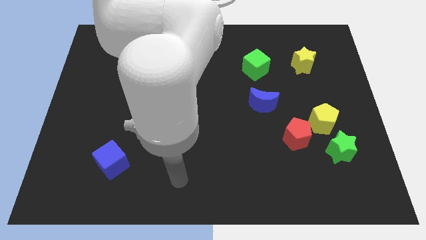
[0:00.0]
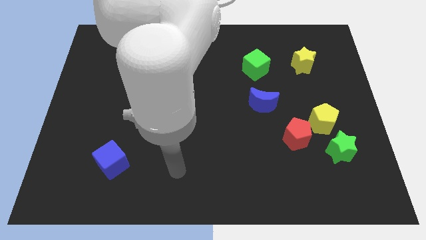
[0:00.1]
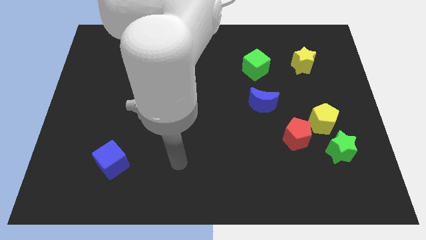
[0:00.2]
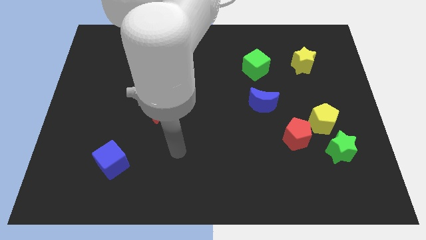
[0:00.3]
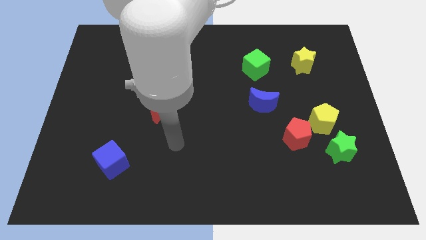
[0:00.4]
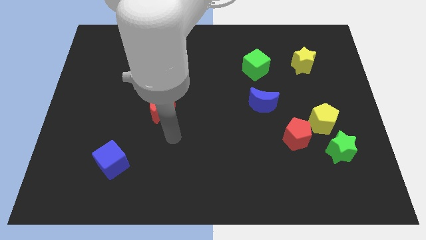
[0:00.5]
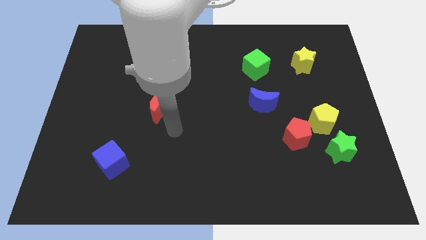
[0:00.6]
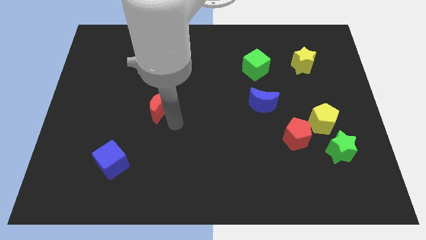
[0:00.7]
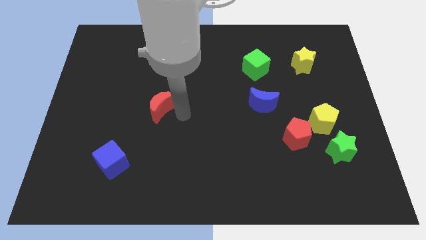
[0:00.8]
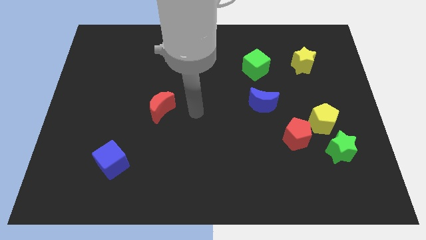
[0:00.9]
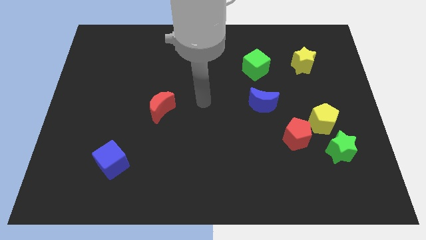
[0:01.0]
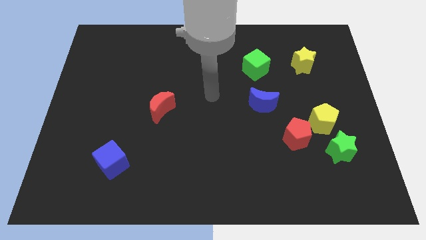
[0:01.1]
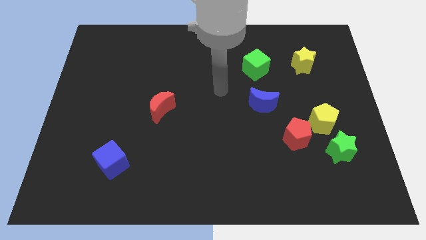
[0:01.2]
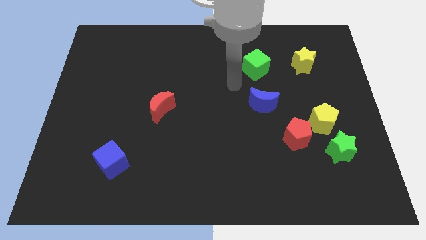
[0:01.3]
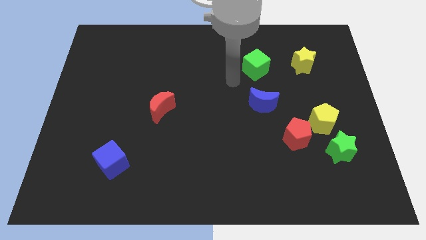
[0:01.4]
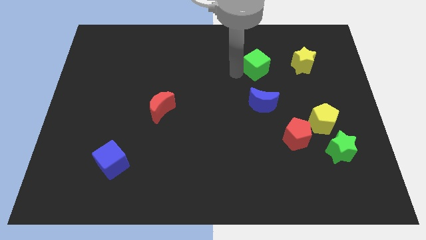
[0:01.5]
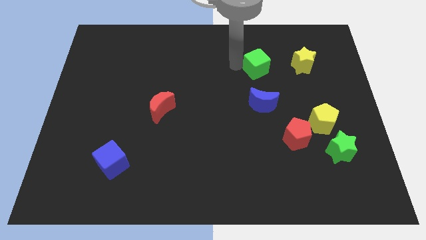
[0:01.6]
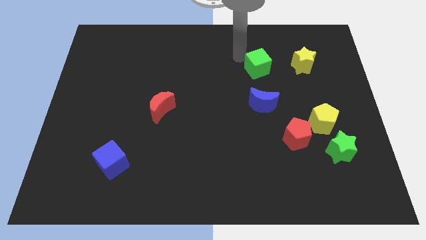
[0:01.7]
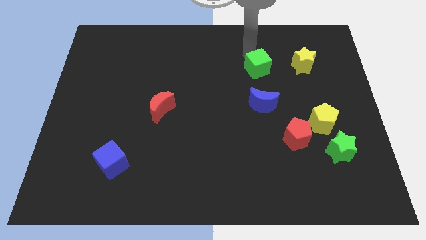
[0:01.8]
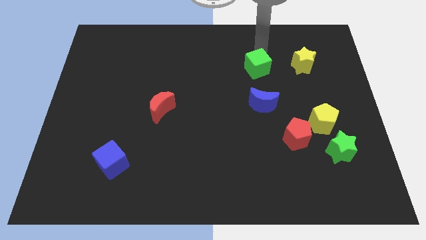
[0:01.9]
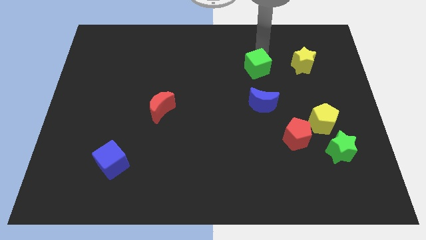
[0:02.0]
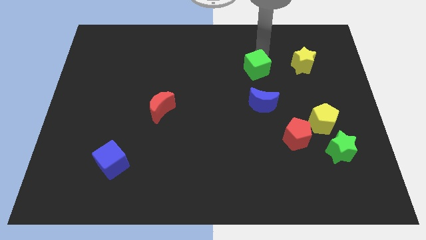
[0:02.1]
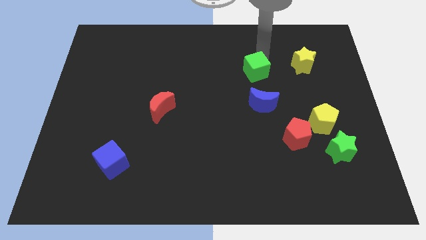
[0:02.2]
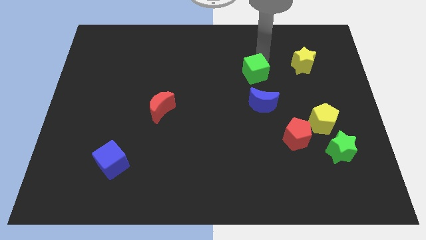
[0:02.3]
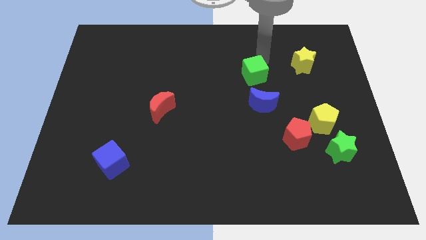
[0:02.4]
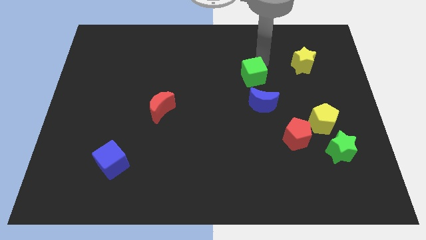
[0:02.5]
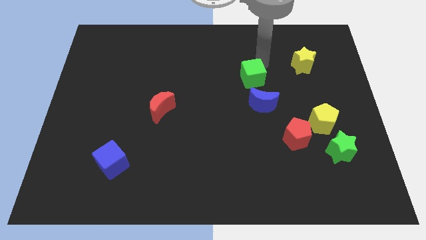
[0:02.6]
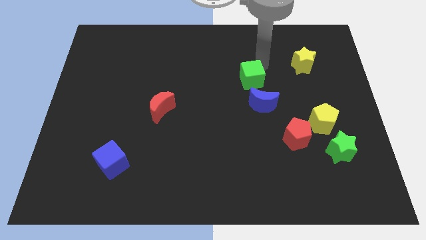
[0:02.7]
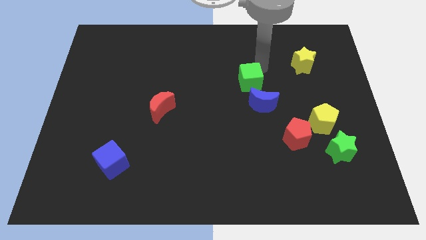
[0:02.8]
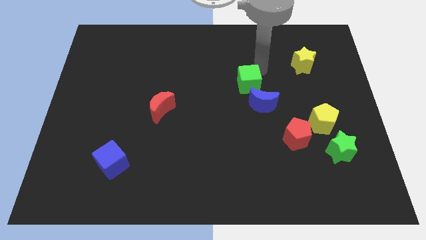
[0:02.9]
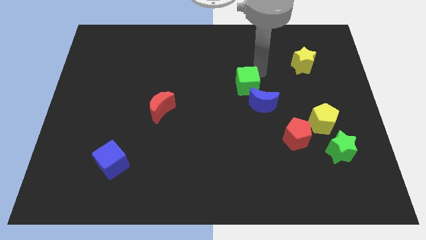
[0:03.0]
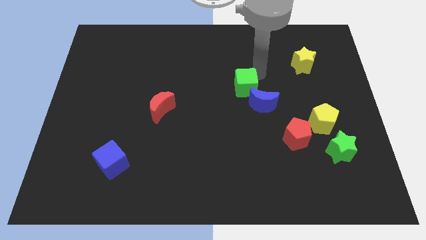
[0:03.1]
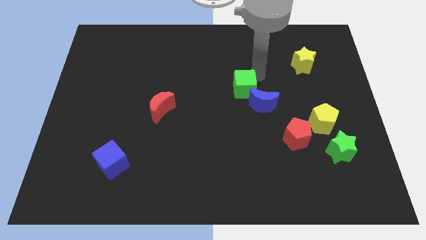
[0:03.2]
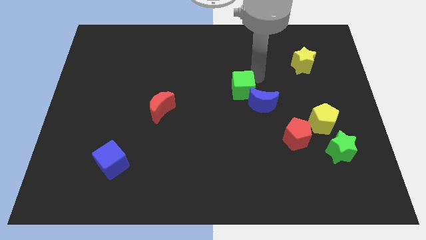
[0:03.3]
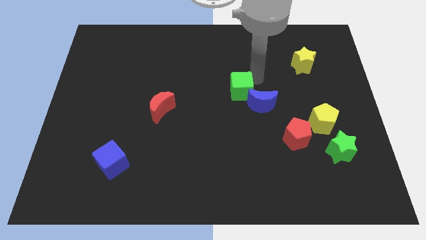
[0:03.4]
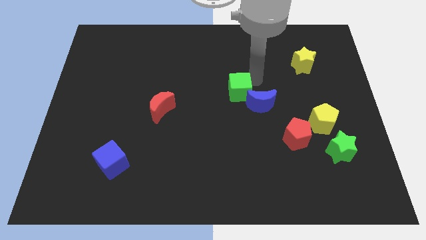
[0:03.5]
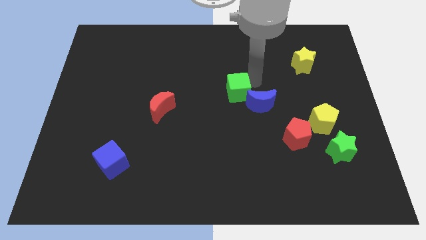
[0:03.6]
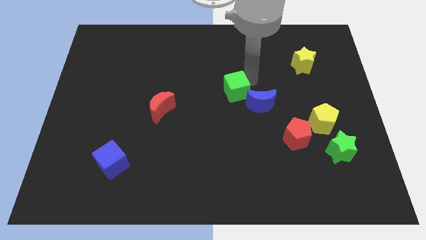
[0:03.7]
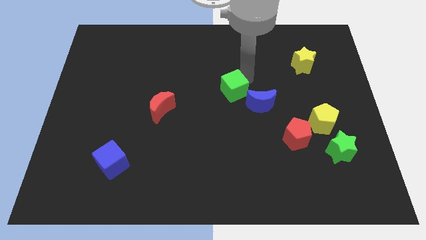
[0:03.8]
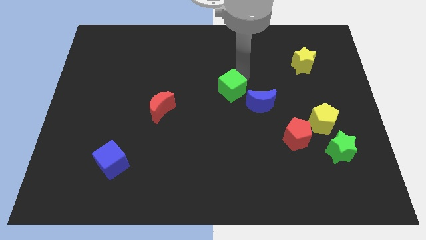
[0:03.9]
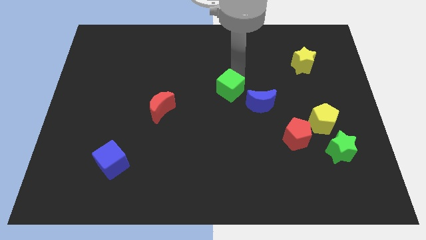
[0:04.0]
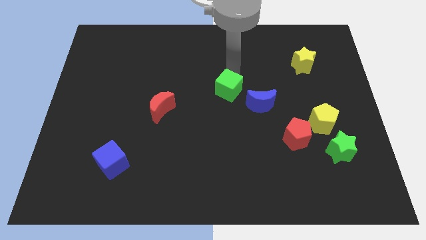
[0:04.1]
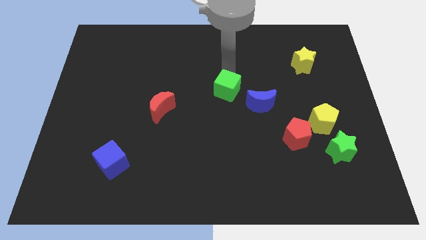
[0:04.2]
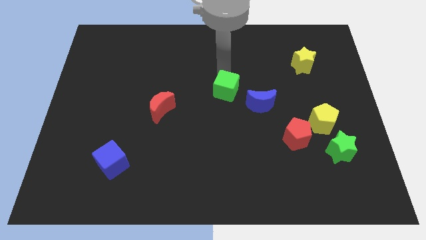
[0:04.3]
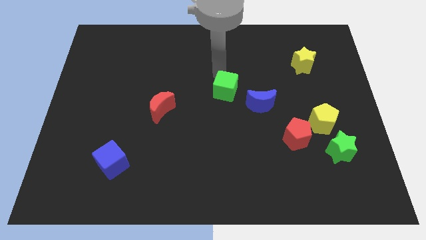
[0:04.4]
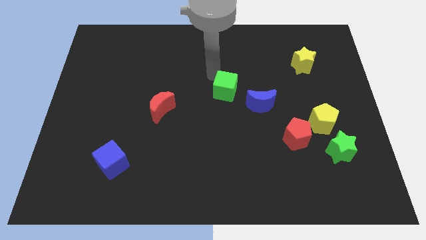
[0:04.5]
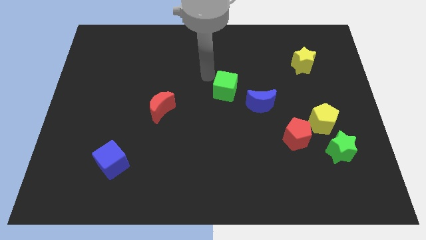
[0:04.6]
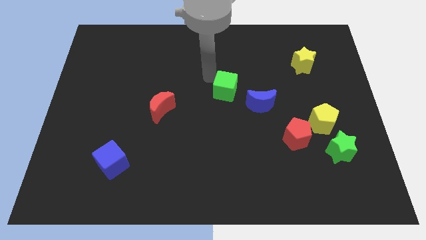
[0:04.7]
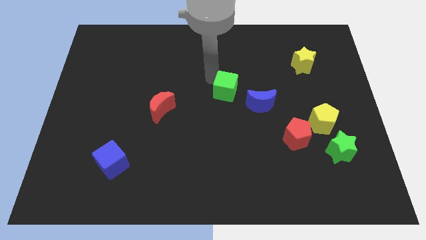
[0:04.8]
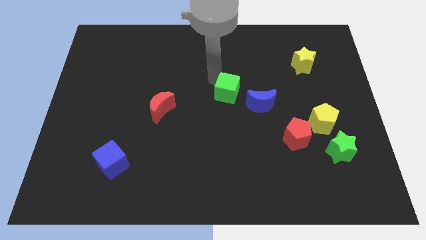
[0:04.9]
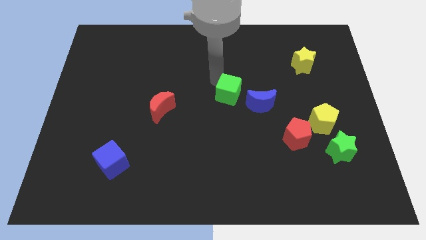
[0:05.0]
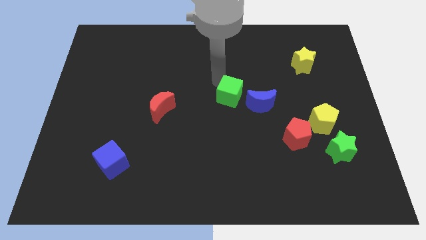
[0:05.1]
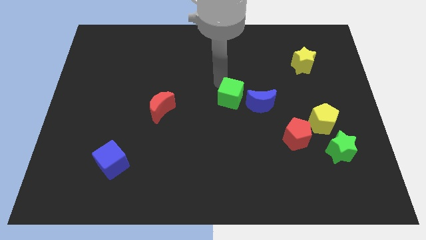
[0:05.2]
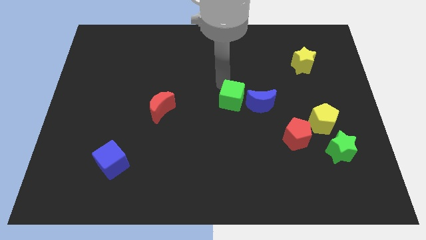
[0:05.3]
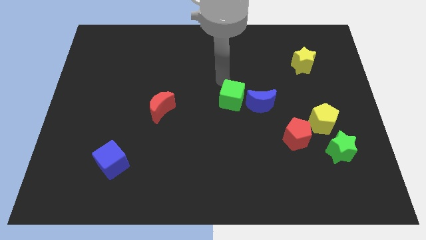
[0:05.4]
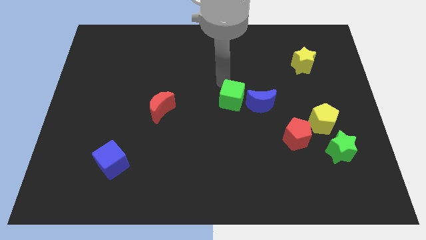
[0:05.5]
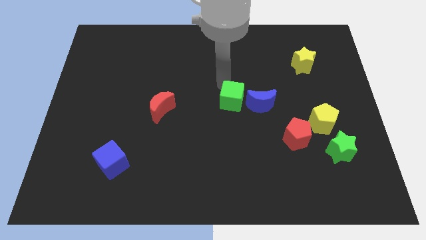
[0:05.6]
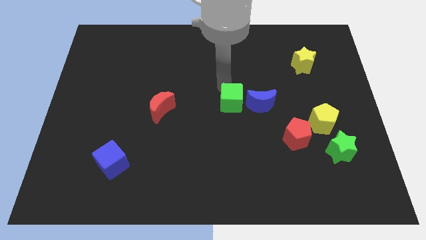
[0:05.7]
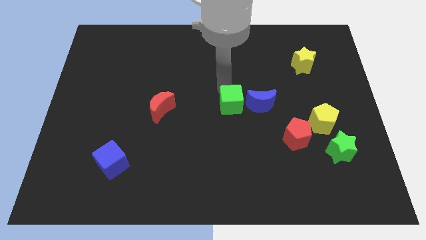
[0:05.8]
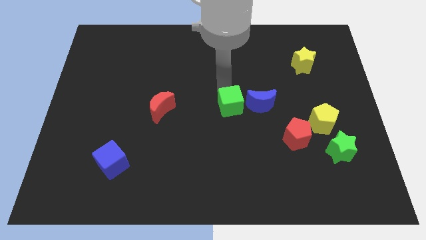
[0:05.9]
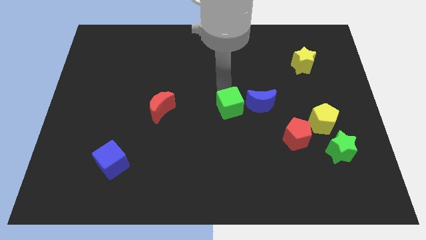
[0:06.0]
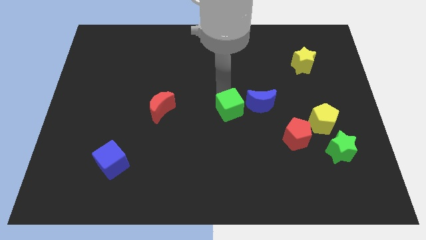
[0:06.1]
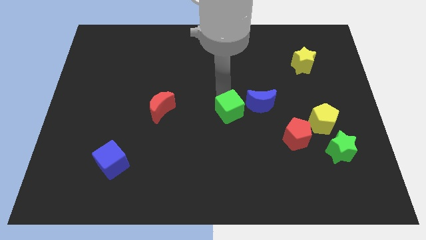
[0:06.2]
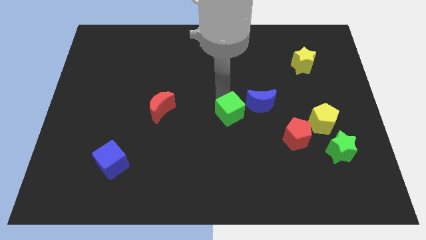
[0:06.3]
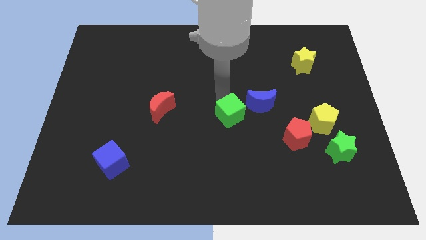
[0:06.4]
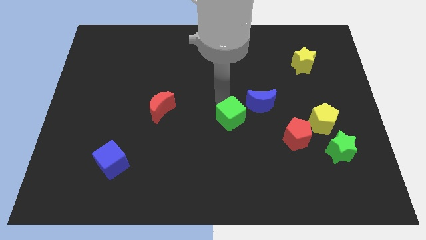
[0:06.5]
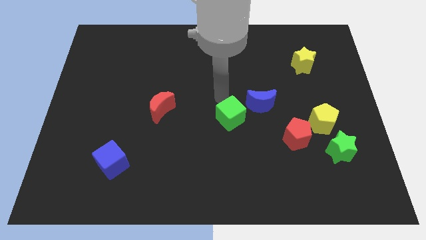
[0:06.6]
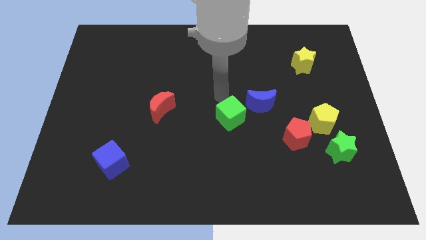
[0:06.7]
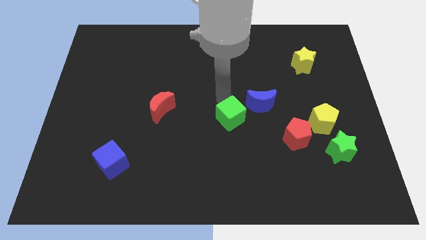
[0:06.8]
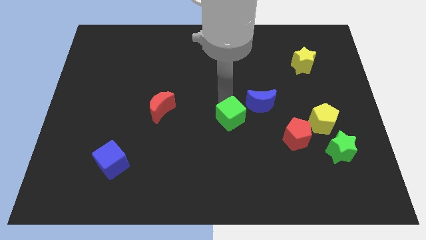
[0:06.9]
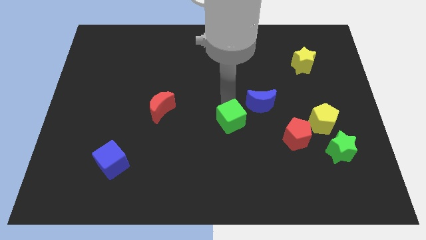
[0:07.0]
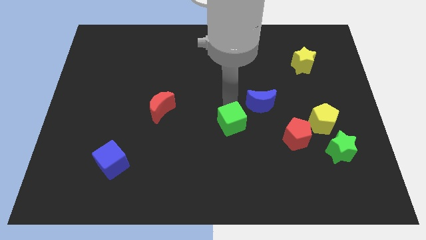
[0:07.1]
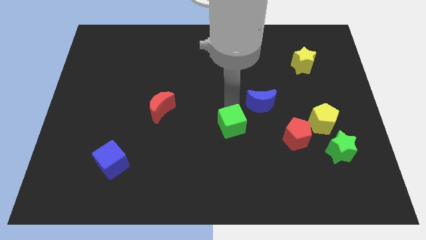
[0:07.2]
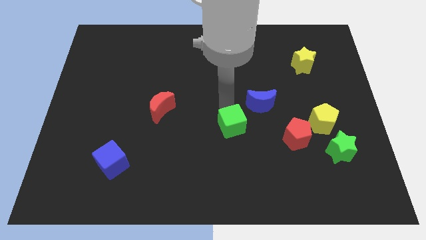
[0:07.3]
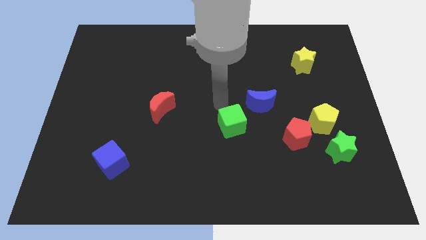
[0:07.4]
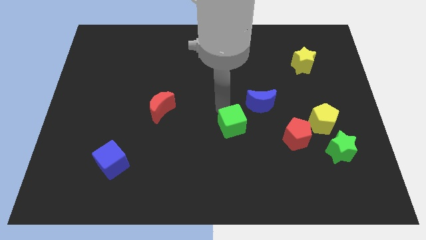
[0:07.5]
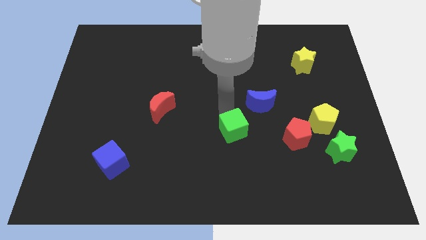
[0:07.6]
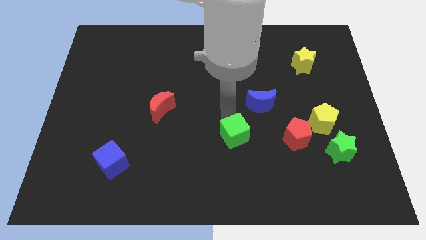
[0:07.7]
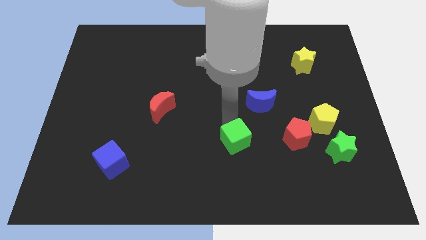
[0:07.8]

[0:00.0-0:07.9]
push the green cube downwards
